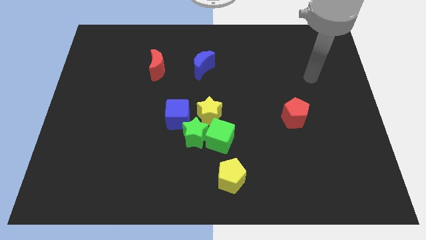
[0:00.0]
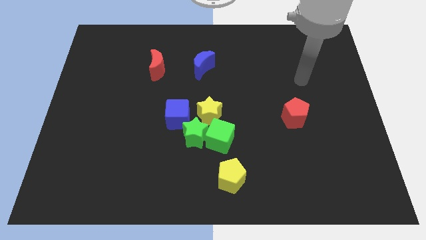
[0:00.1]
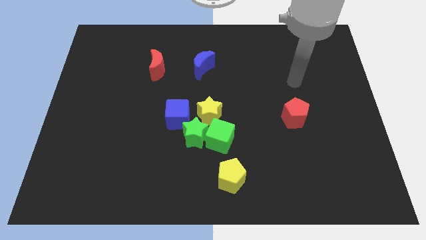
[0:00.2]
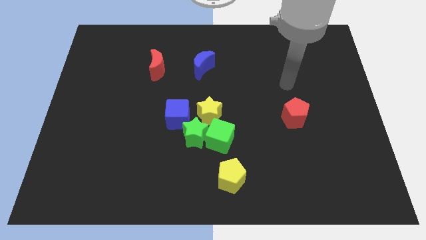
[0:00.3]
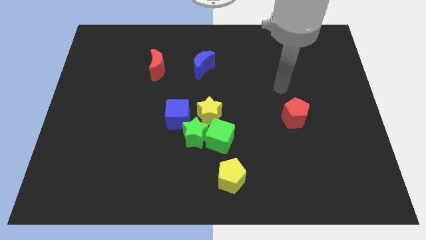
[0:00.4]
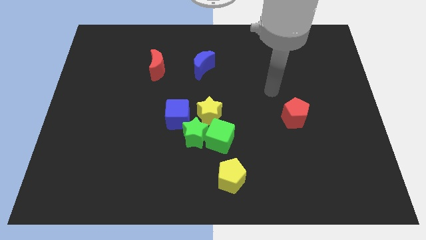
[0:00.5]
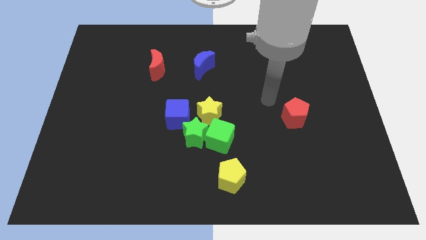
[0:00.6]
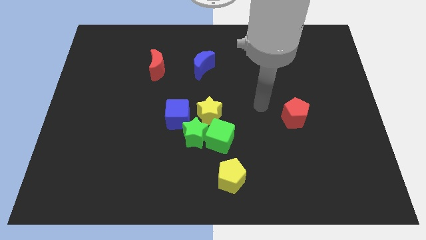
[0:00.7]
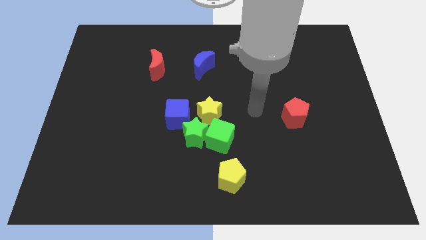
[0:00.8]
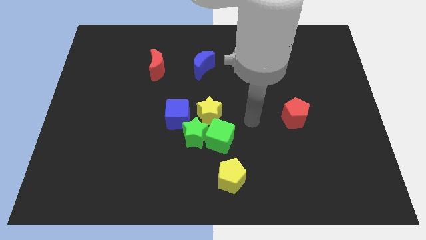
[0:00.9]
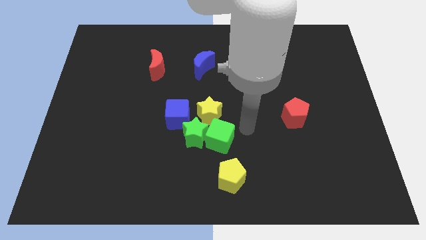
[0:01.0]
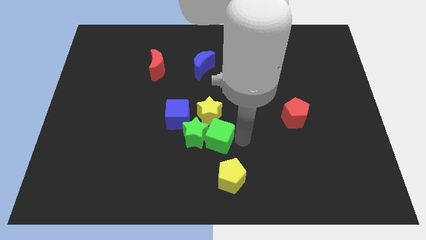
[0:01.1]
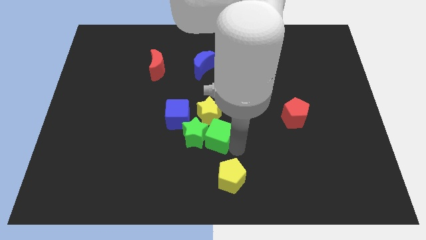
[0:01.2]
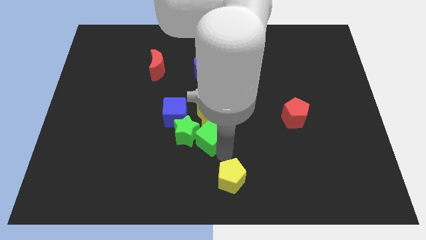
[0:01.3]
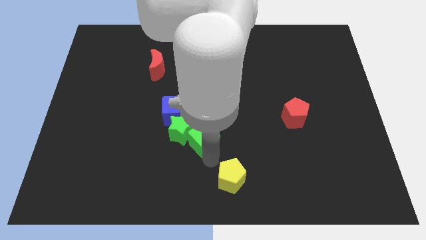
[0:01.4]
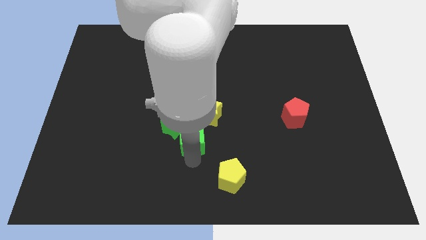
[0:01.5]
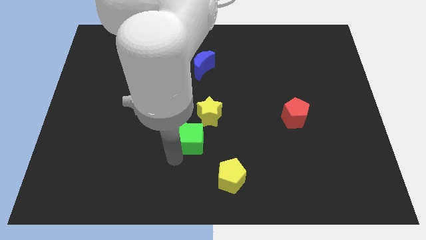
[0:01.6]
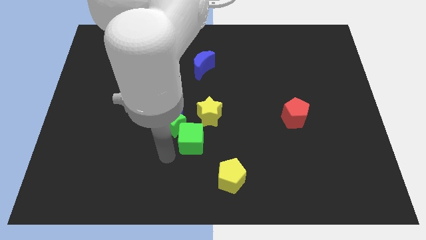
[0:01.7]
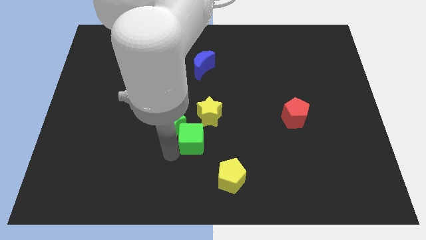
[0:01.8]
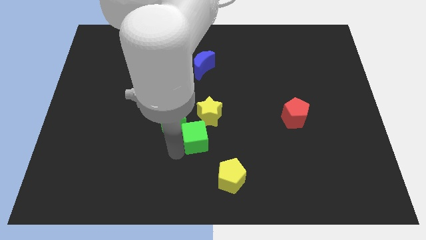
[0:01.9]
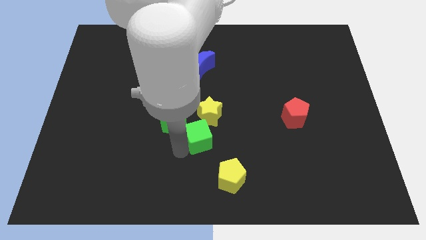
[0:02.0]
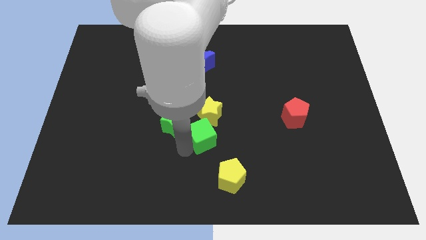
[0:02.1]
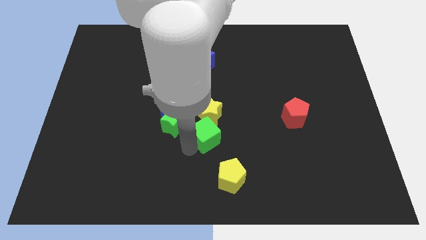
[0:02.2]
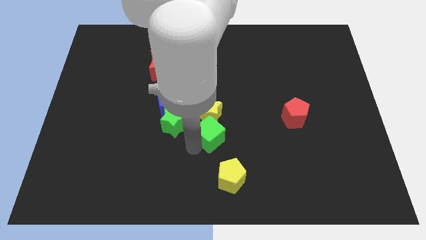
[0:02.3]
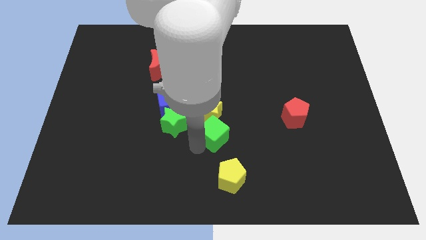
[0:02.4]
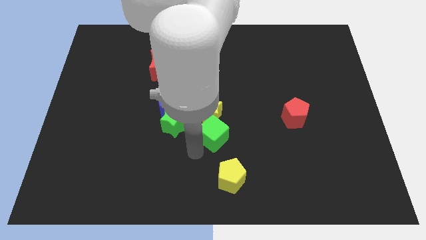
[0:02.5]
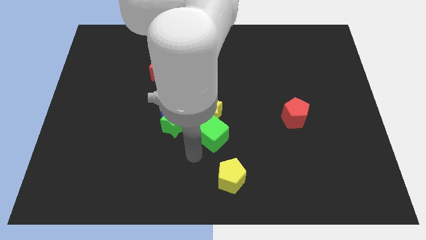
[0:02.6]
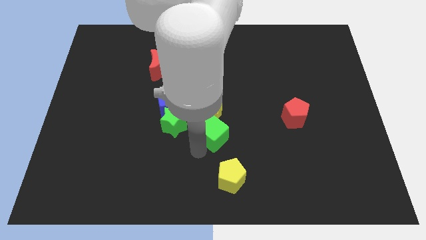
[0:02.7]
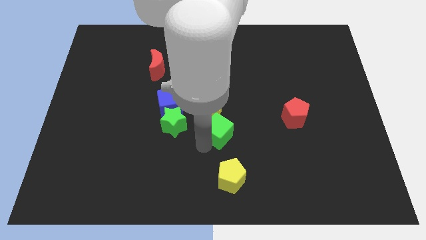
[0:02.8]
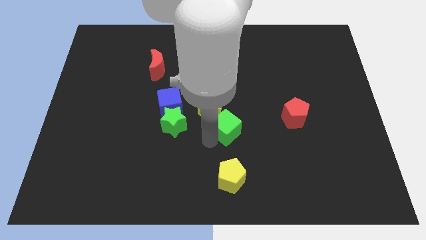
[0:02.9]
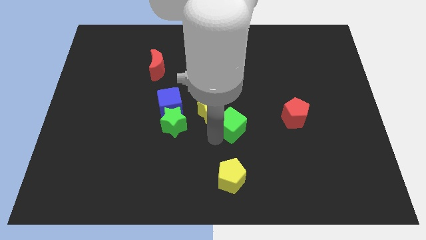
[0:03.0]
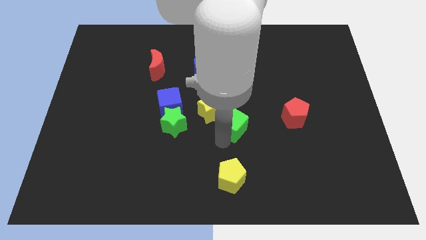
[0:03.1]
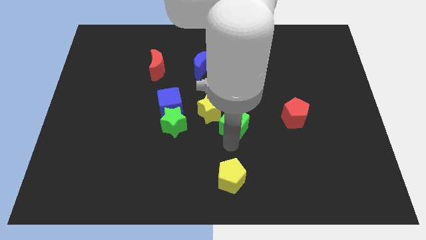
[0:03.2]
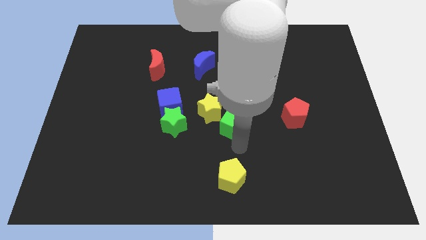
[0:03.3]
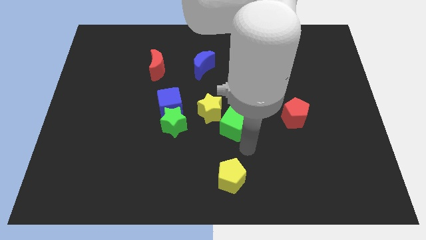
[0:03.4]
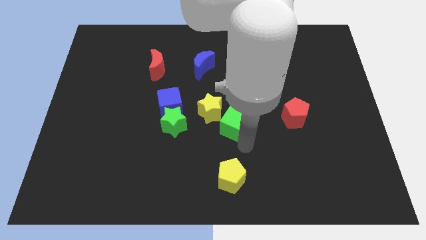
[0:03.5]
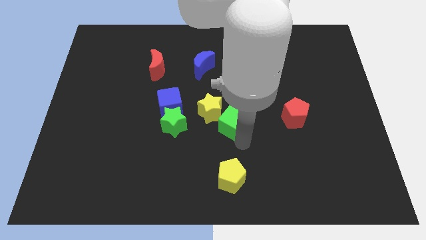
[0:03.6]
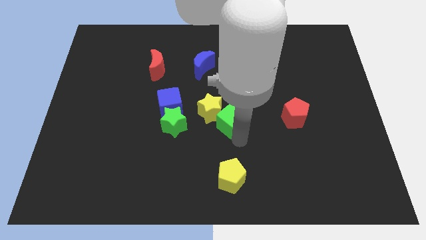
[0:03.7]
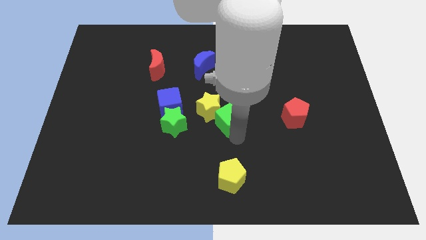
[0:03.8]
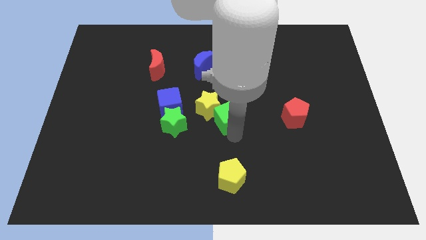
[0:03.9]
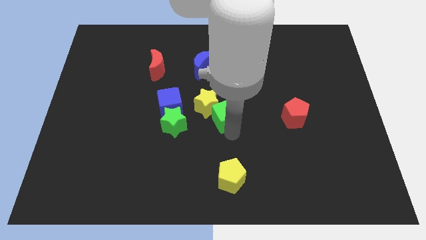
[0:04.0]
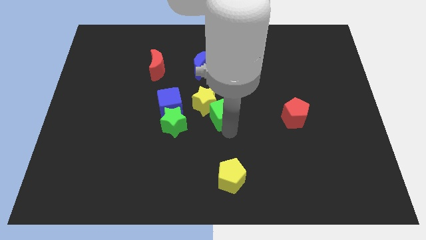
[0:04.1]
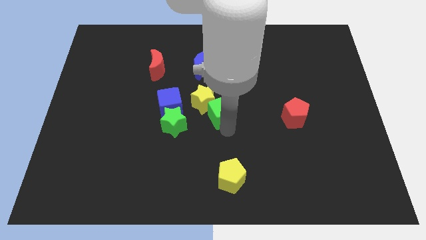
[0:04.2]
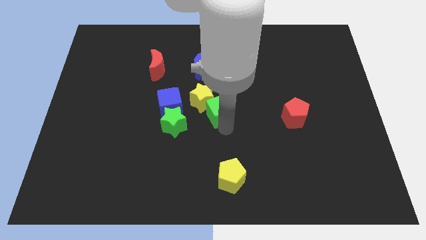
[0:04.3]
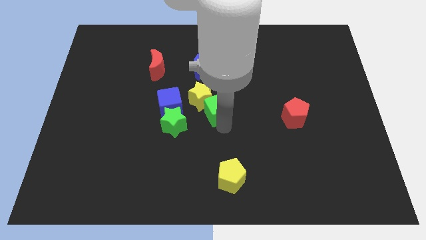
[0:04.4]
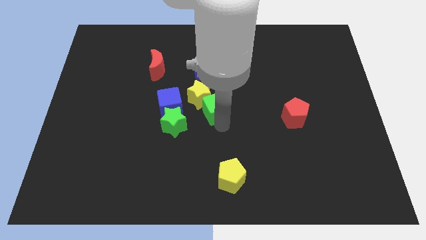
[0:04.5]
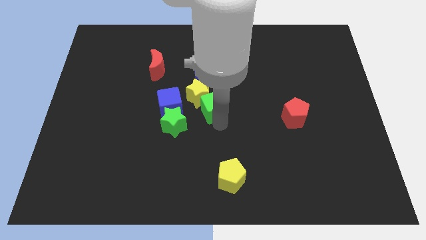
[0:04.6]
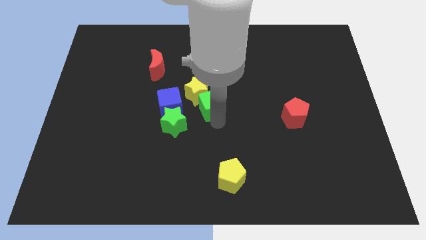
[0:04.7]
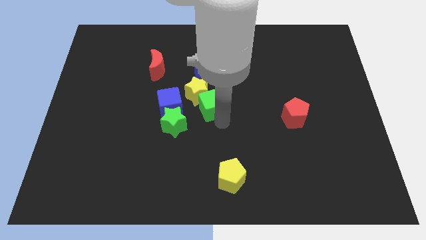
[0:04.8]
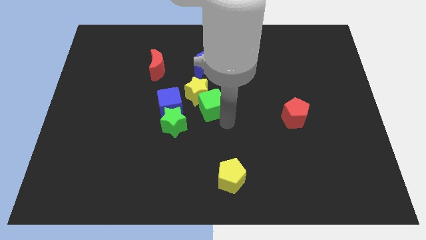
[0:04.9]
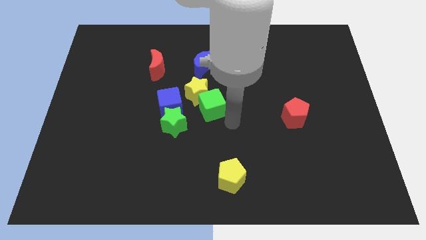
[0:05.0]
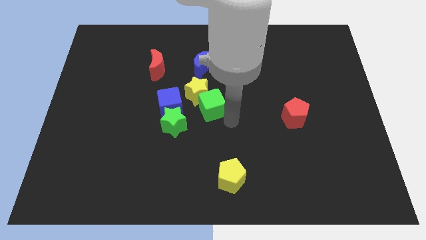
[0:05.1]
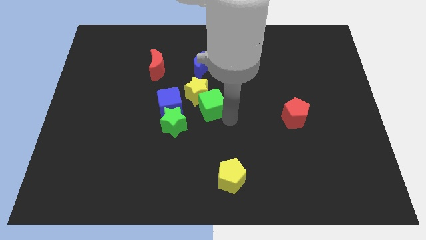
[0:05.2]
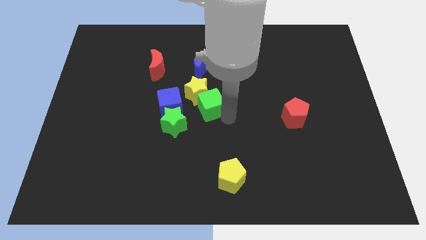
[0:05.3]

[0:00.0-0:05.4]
move the green cube slightly upwards and to the left diagonally

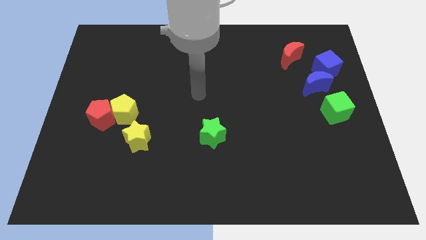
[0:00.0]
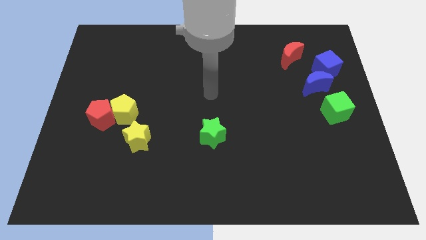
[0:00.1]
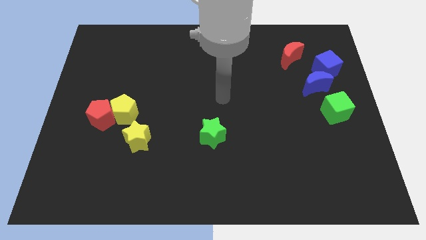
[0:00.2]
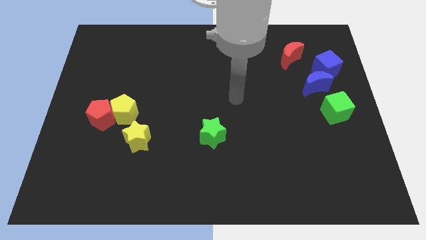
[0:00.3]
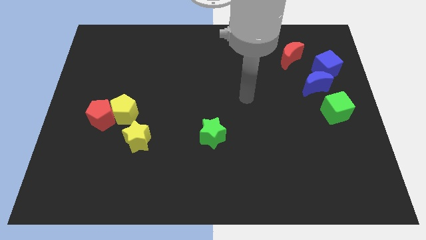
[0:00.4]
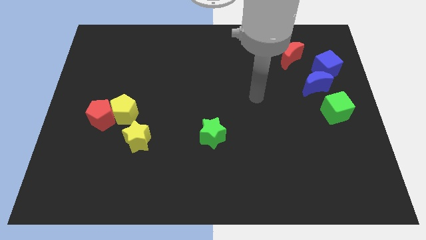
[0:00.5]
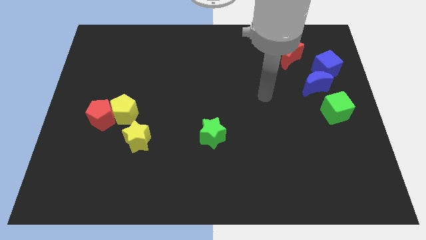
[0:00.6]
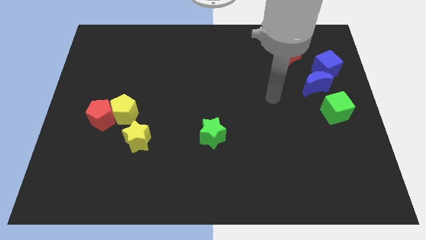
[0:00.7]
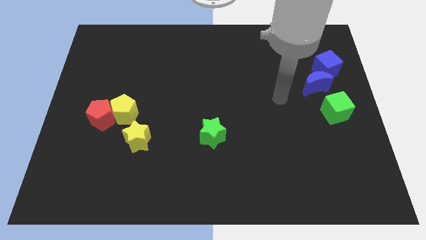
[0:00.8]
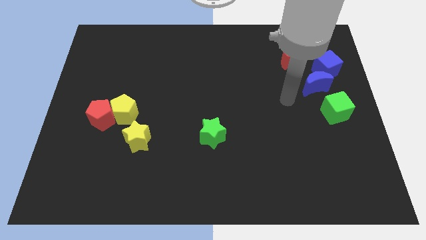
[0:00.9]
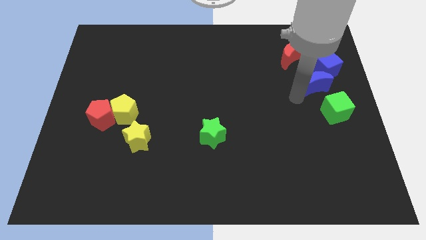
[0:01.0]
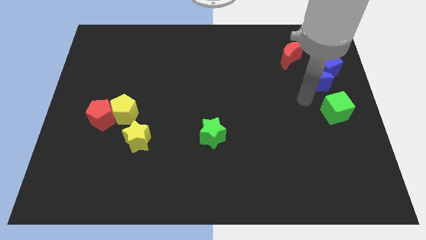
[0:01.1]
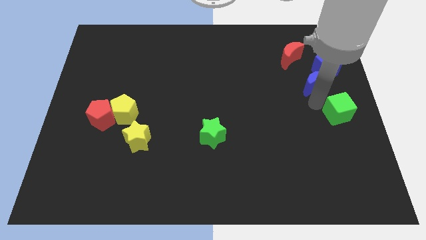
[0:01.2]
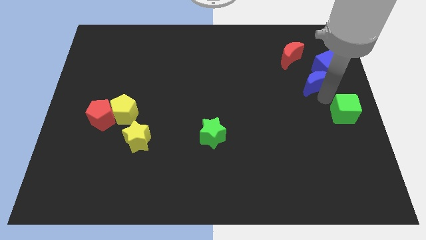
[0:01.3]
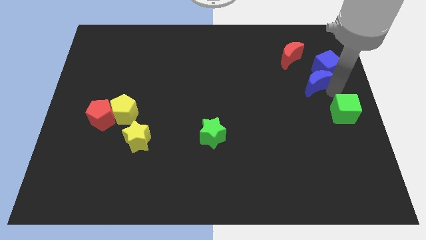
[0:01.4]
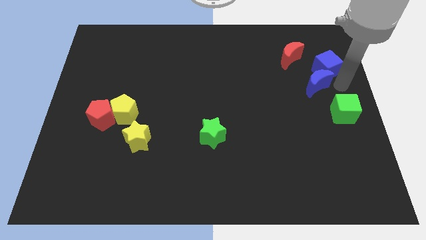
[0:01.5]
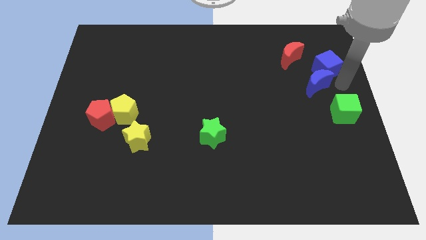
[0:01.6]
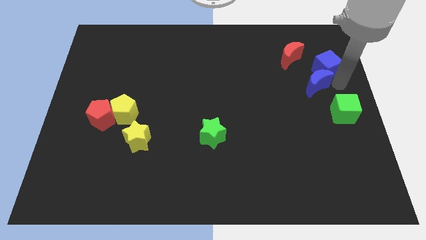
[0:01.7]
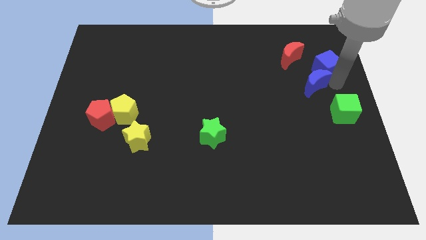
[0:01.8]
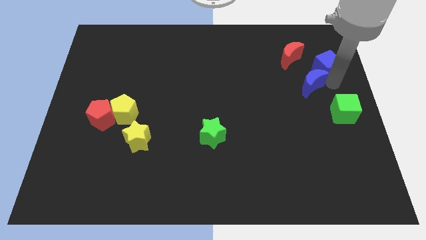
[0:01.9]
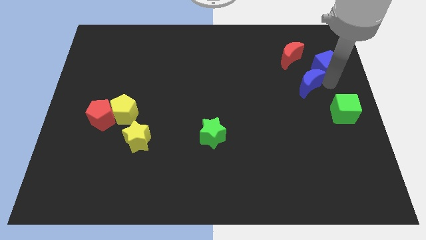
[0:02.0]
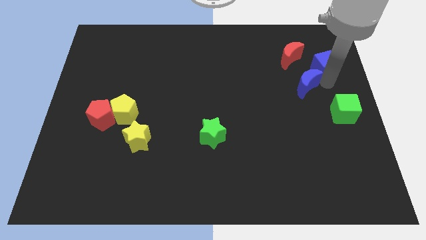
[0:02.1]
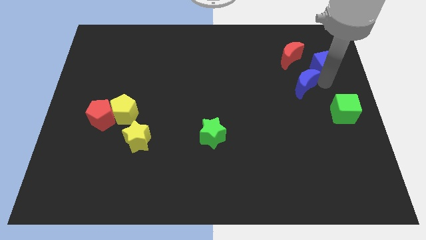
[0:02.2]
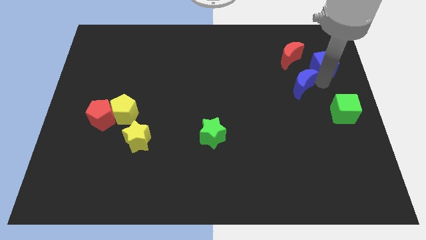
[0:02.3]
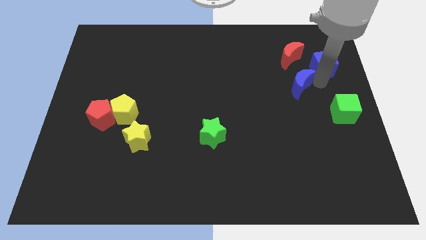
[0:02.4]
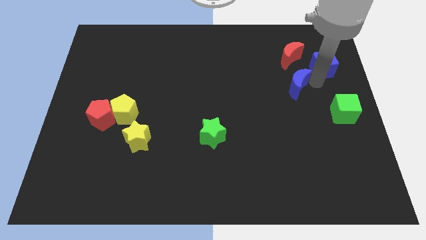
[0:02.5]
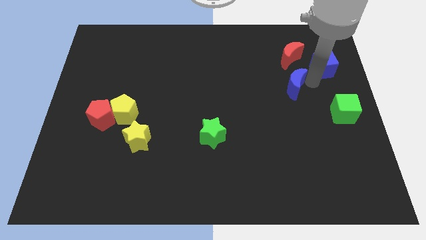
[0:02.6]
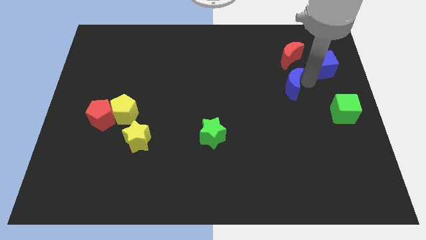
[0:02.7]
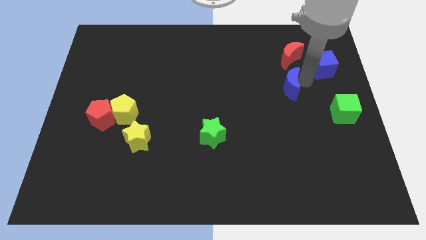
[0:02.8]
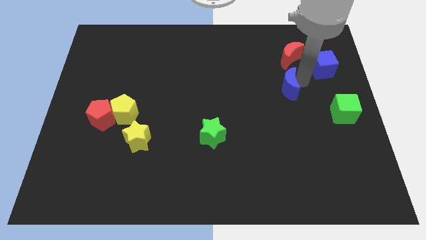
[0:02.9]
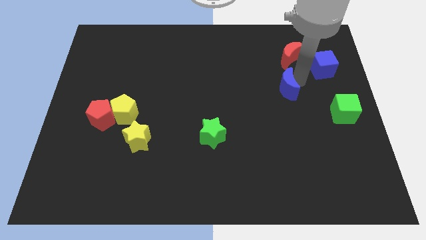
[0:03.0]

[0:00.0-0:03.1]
move the blue moon somewhat left
